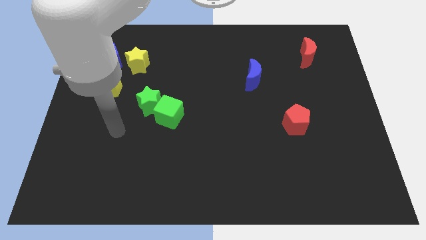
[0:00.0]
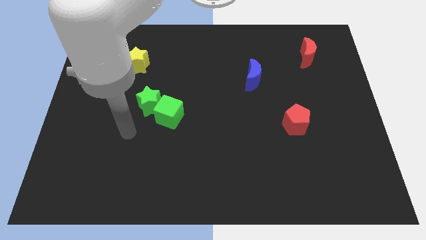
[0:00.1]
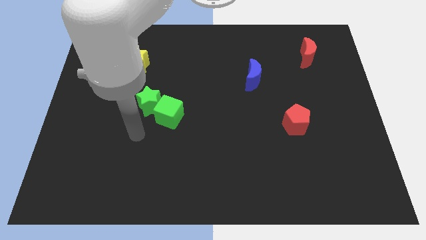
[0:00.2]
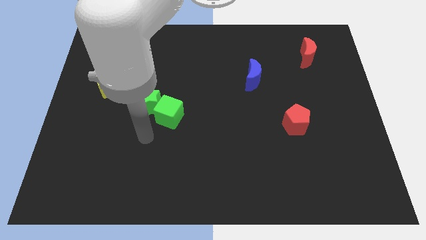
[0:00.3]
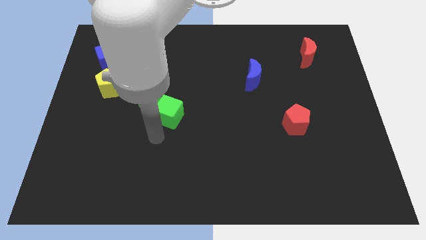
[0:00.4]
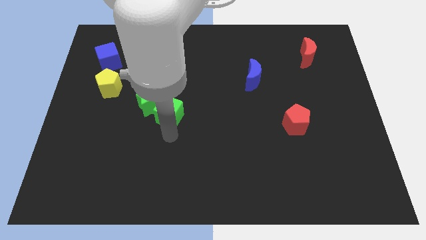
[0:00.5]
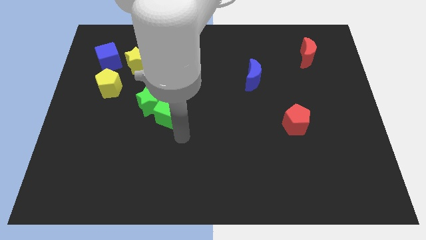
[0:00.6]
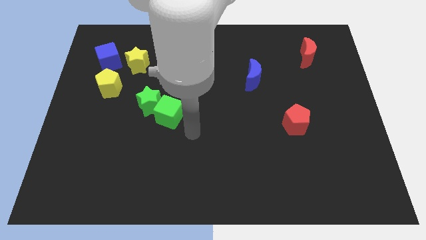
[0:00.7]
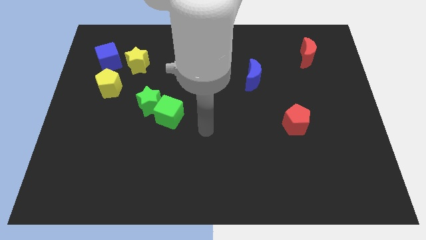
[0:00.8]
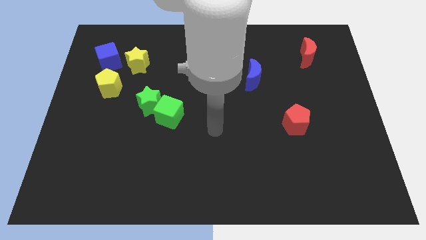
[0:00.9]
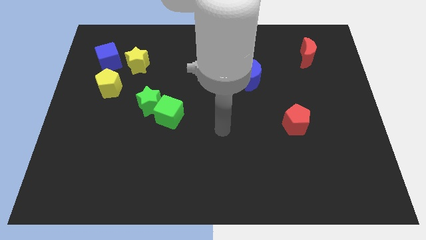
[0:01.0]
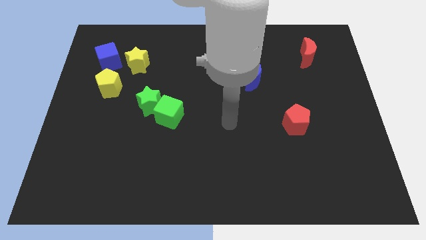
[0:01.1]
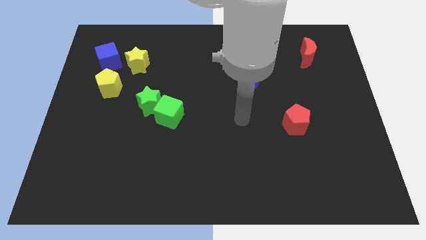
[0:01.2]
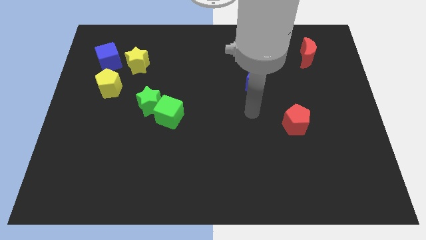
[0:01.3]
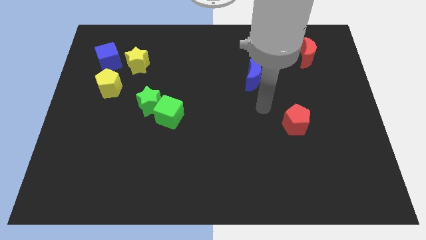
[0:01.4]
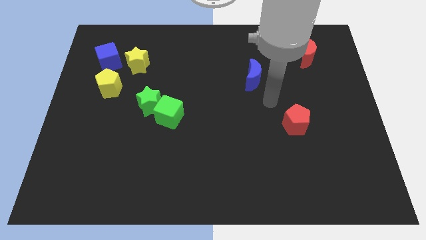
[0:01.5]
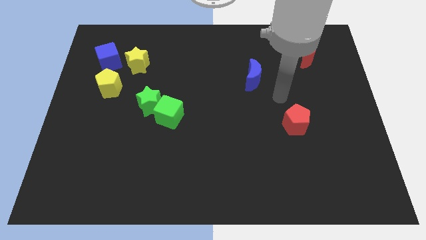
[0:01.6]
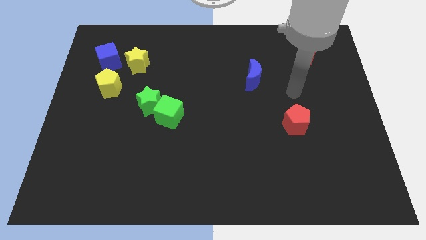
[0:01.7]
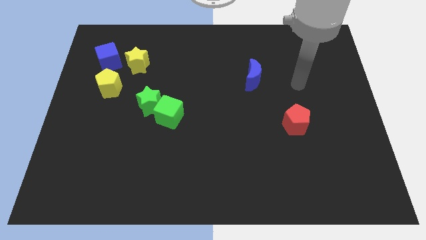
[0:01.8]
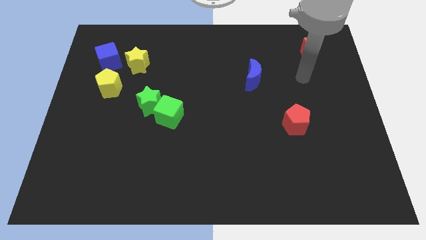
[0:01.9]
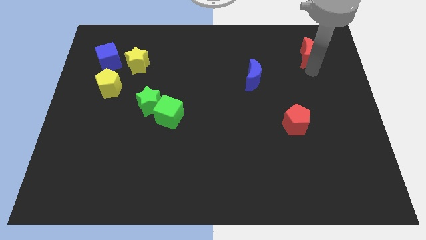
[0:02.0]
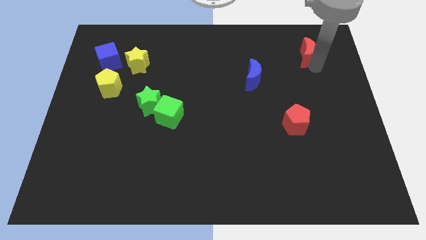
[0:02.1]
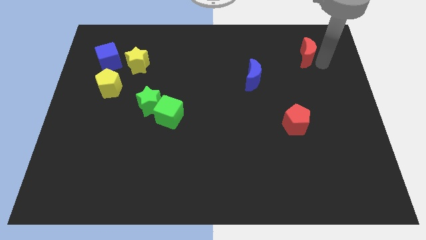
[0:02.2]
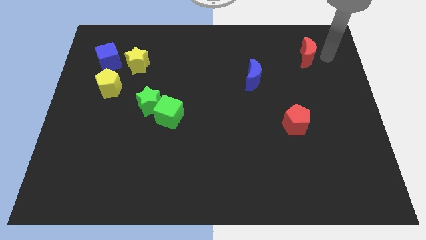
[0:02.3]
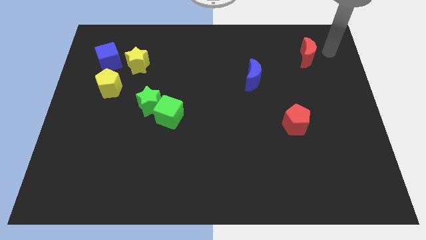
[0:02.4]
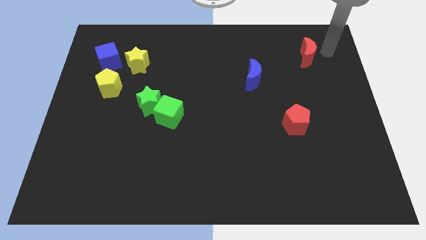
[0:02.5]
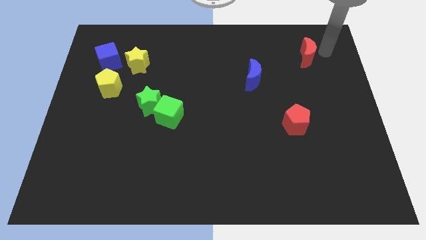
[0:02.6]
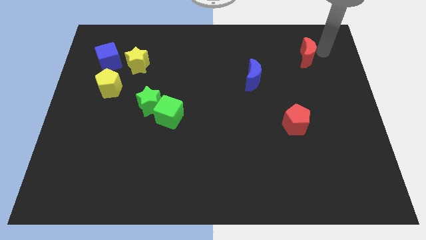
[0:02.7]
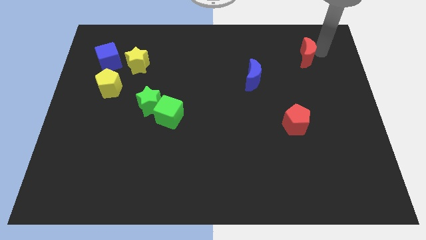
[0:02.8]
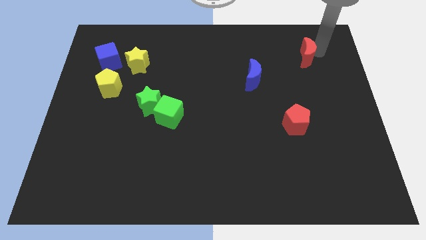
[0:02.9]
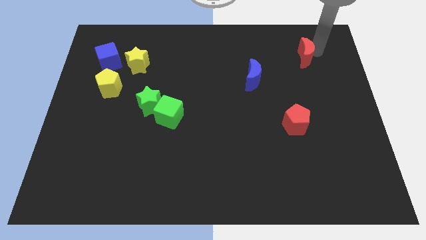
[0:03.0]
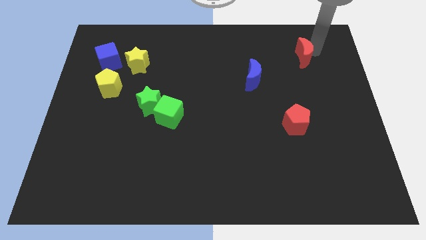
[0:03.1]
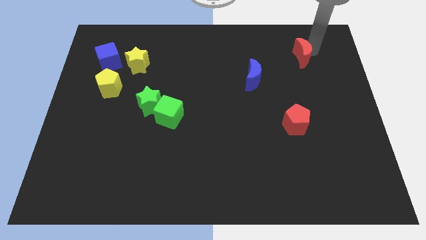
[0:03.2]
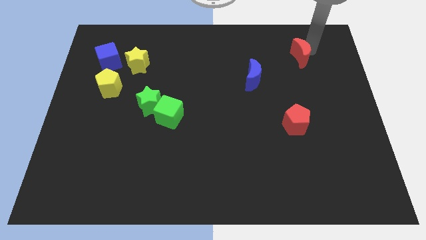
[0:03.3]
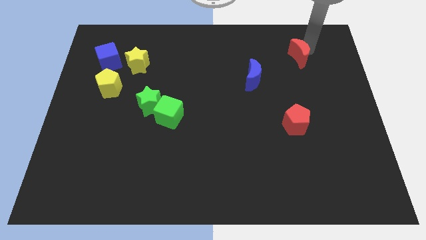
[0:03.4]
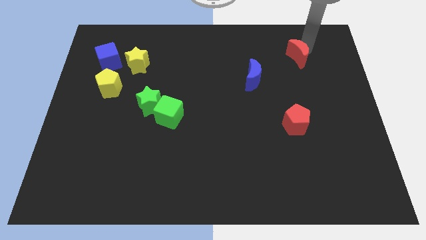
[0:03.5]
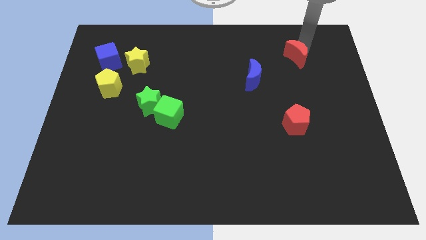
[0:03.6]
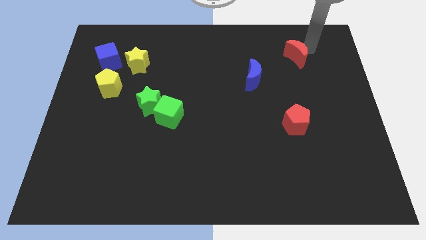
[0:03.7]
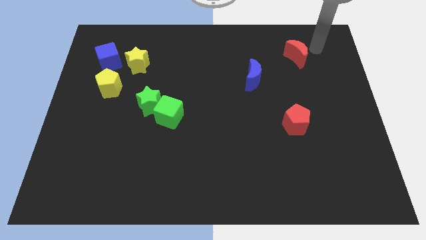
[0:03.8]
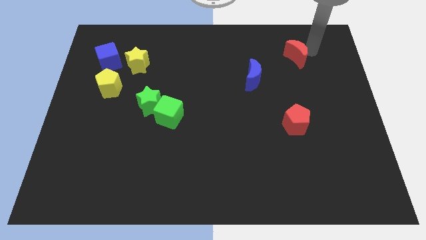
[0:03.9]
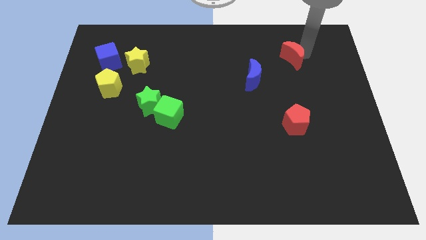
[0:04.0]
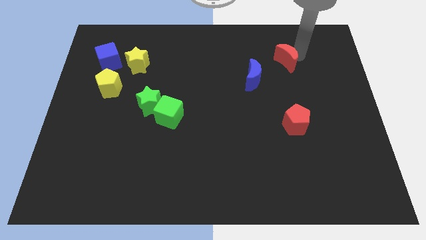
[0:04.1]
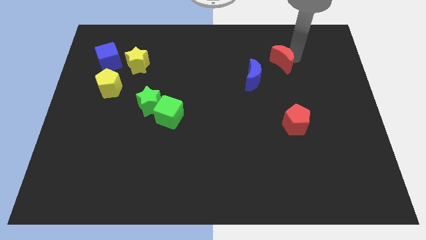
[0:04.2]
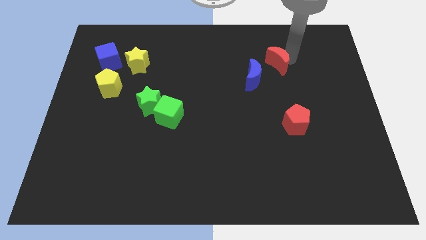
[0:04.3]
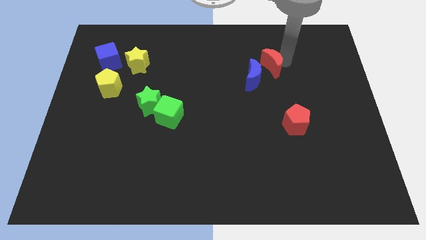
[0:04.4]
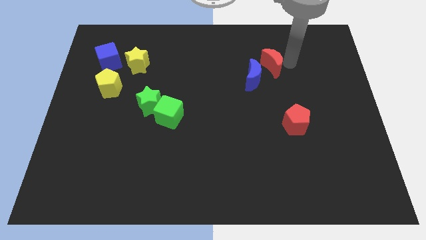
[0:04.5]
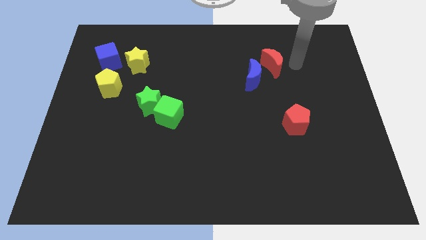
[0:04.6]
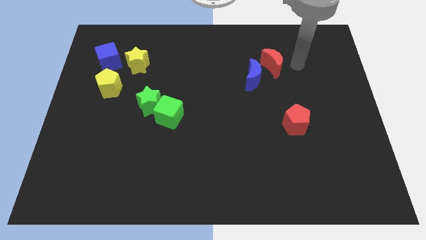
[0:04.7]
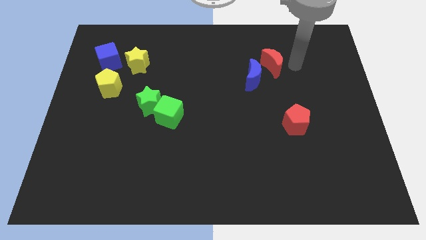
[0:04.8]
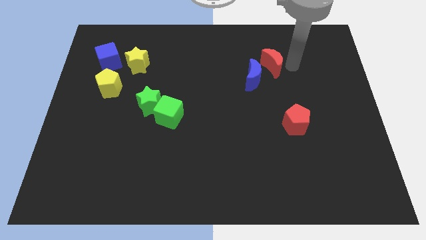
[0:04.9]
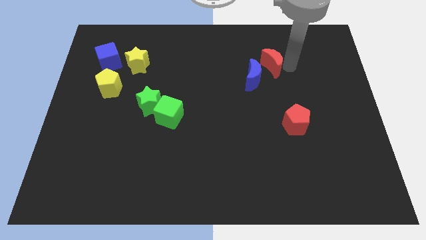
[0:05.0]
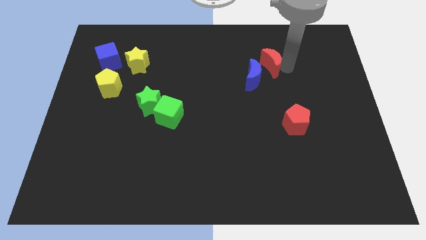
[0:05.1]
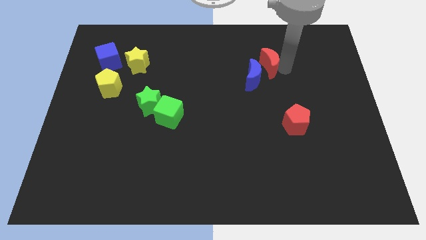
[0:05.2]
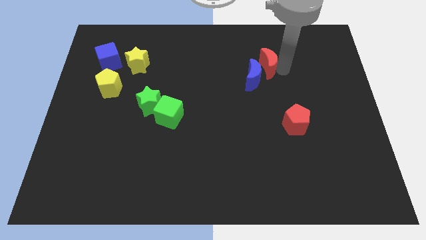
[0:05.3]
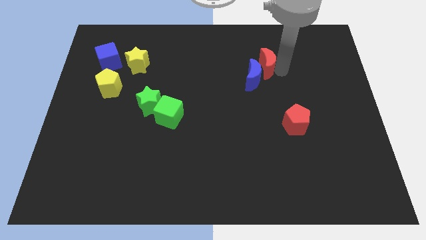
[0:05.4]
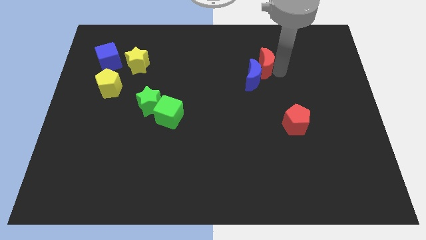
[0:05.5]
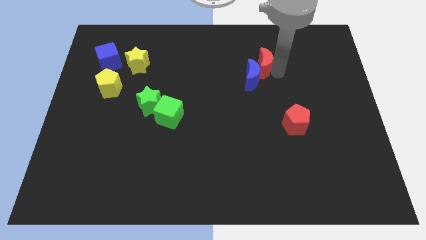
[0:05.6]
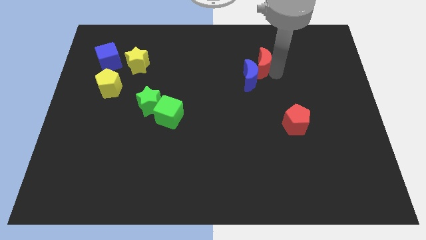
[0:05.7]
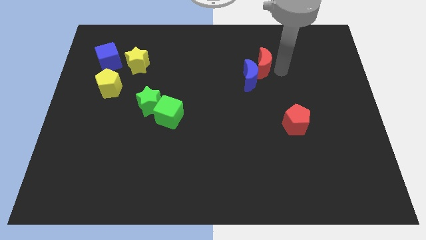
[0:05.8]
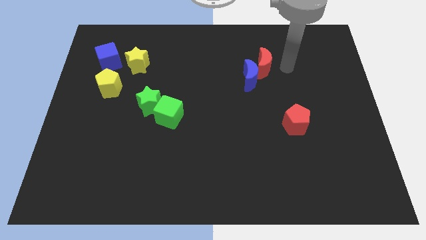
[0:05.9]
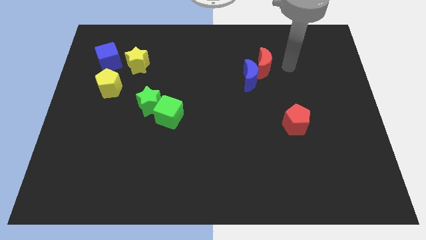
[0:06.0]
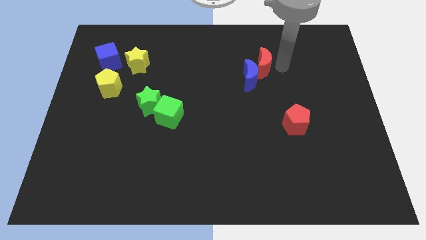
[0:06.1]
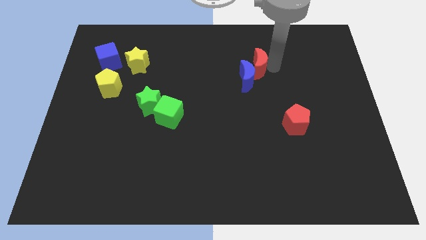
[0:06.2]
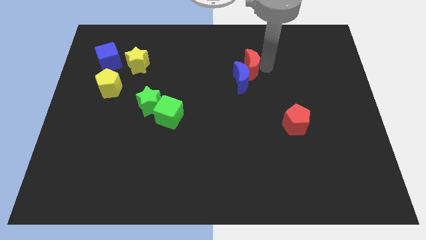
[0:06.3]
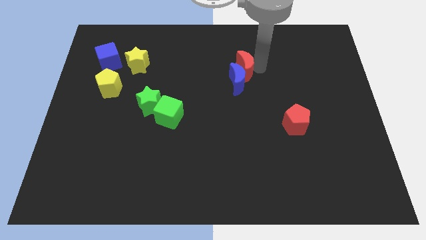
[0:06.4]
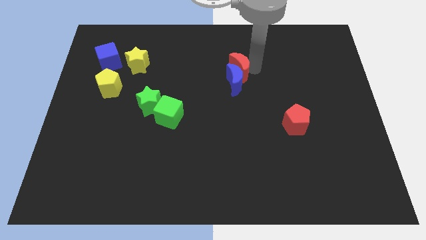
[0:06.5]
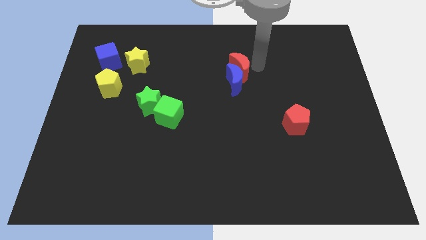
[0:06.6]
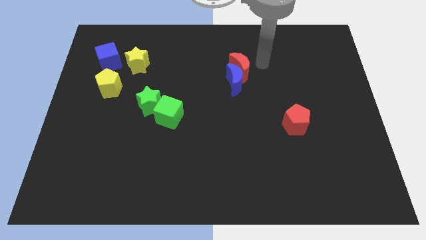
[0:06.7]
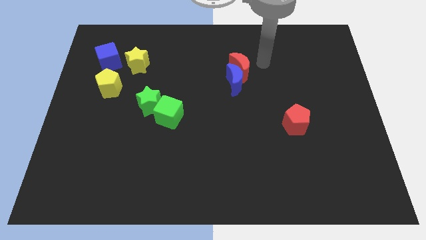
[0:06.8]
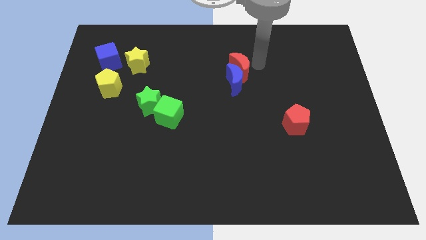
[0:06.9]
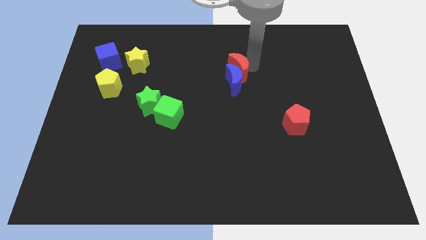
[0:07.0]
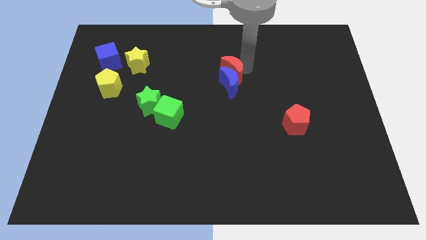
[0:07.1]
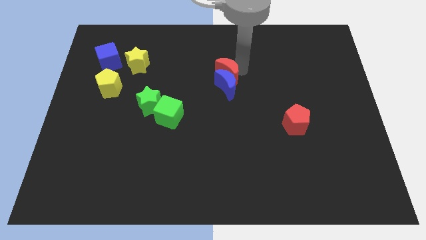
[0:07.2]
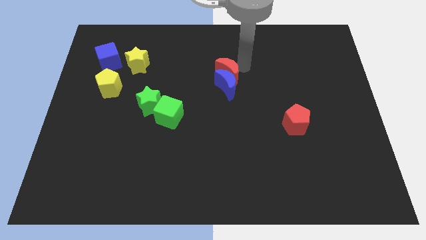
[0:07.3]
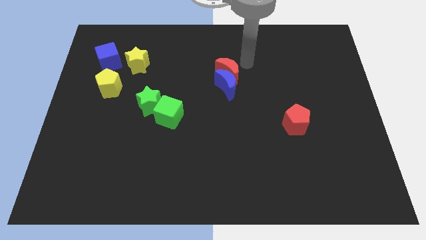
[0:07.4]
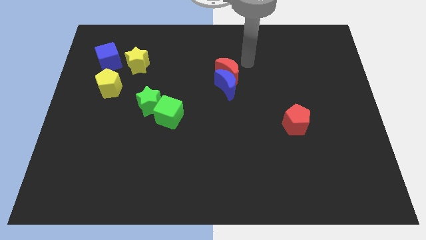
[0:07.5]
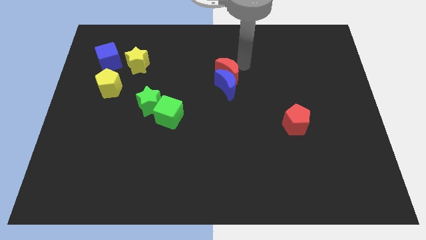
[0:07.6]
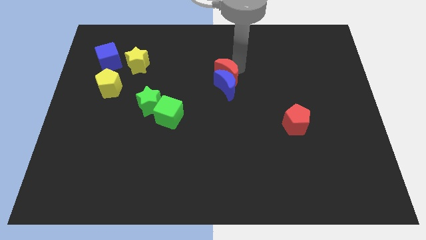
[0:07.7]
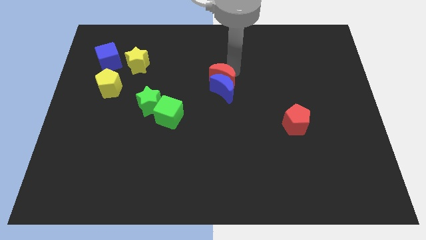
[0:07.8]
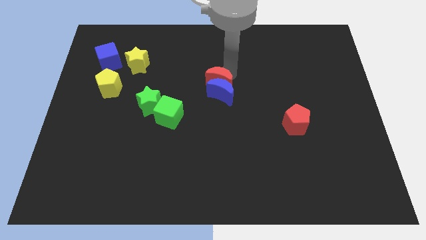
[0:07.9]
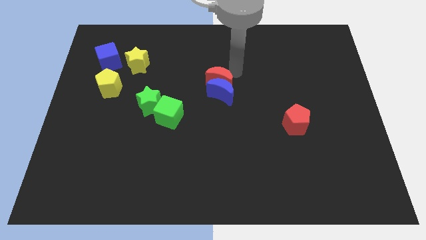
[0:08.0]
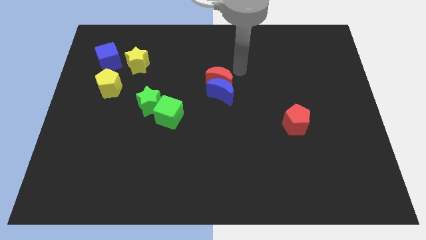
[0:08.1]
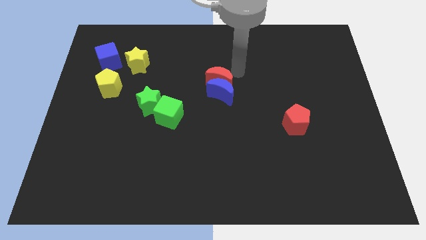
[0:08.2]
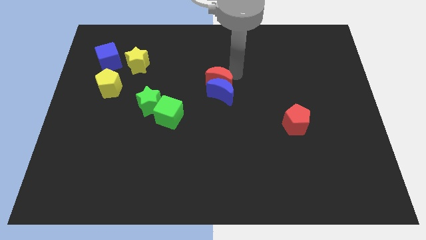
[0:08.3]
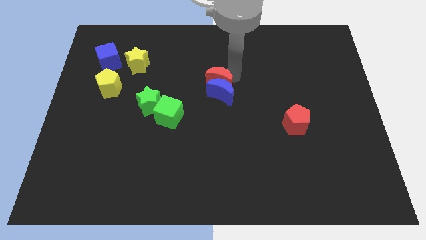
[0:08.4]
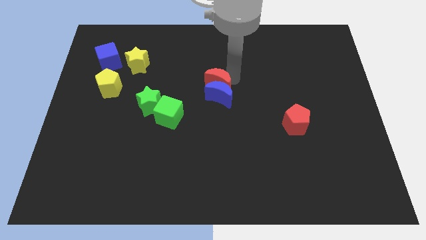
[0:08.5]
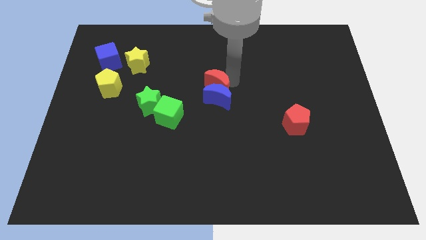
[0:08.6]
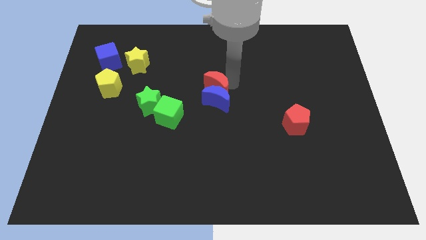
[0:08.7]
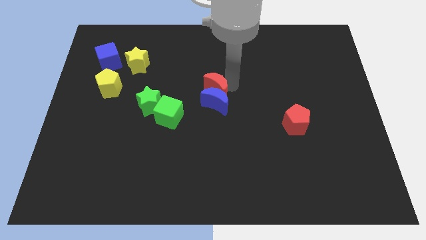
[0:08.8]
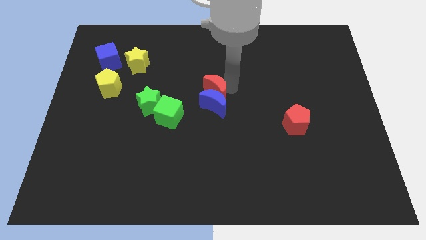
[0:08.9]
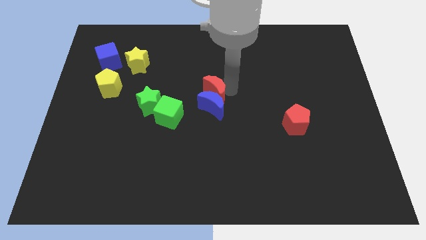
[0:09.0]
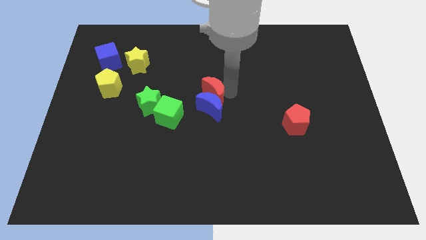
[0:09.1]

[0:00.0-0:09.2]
push the red moon to the top right side of the green cube
